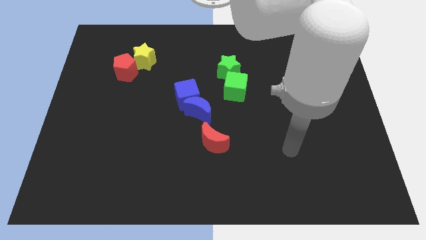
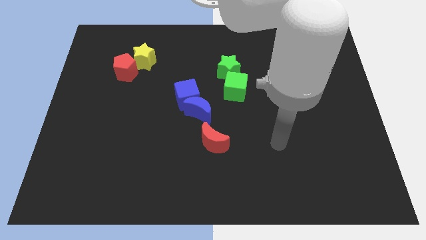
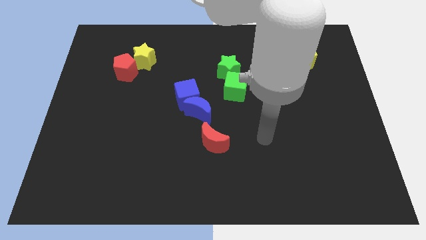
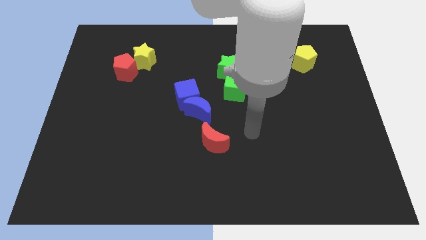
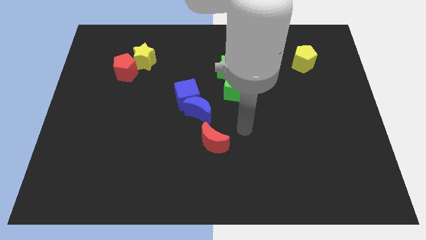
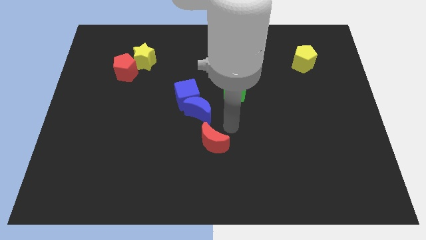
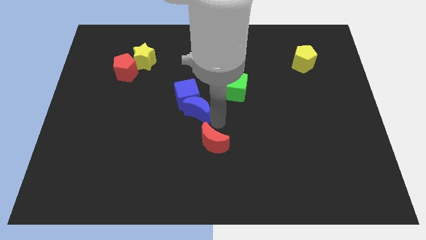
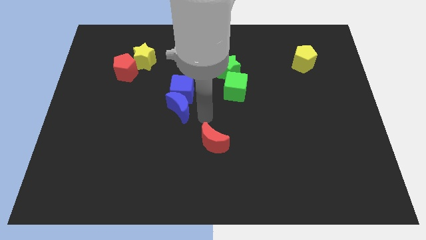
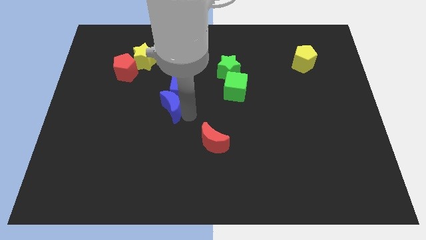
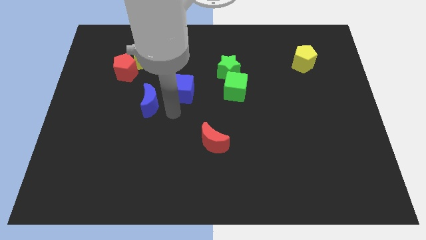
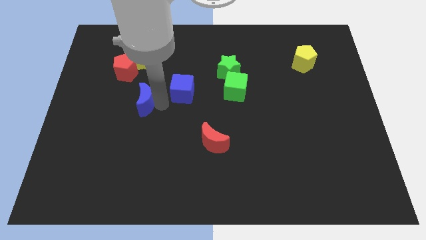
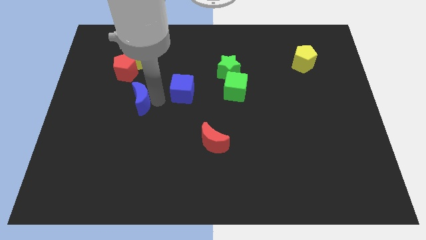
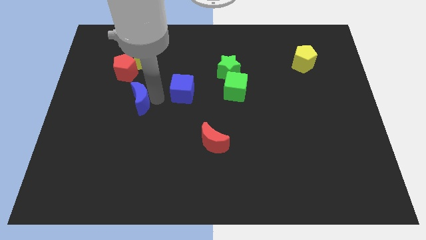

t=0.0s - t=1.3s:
pull the blue cube apart from the blue moon

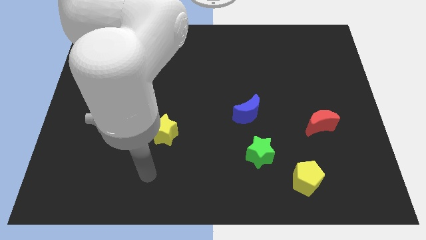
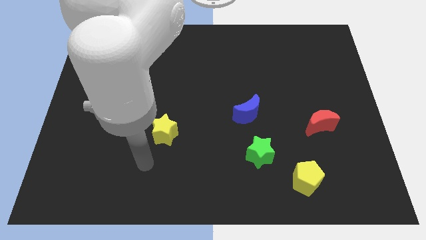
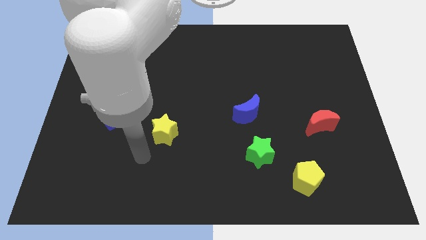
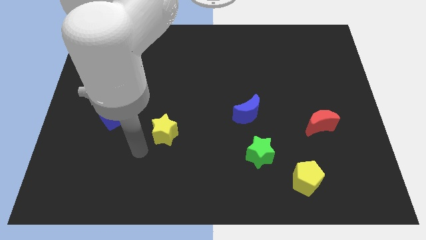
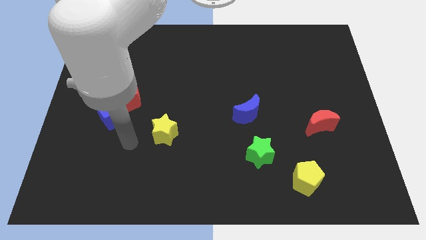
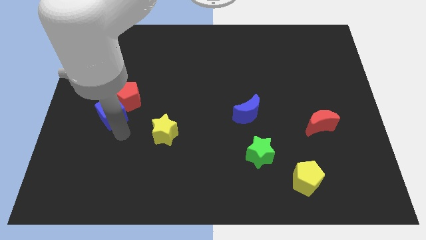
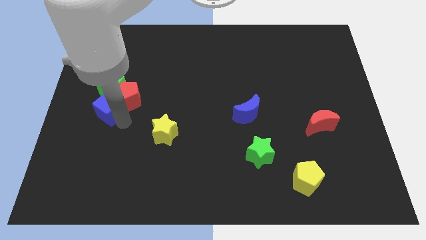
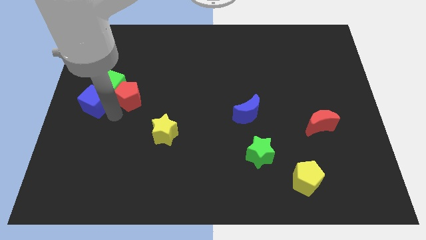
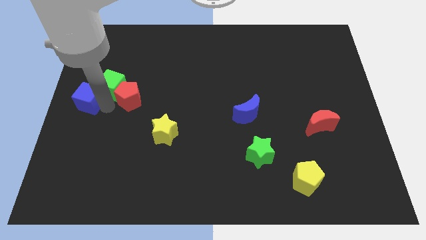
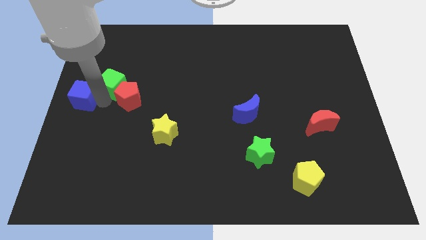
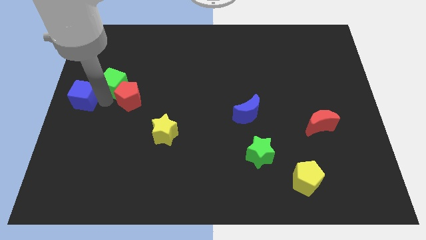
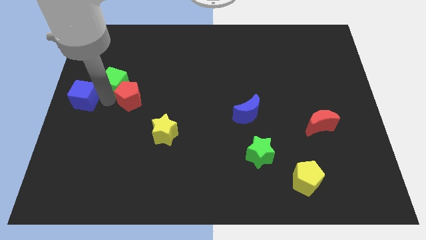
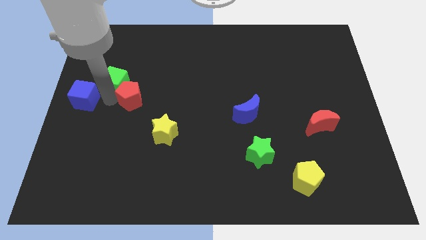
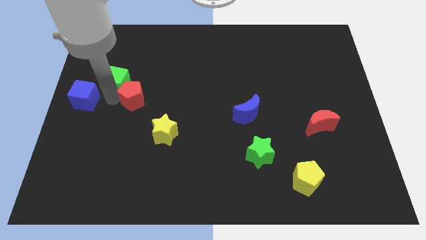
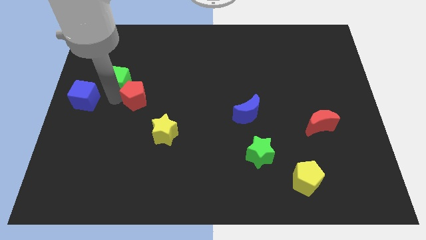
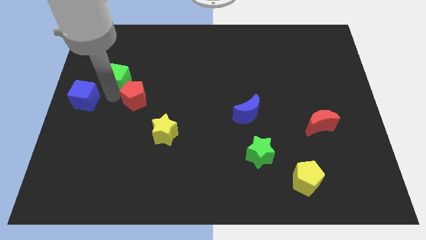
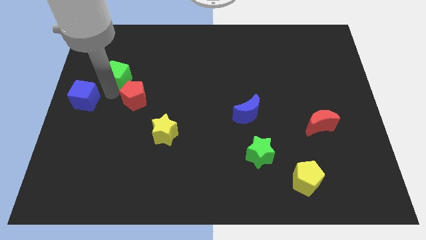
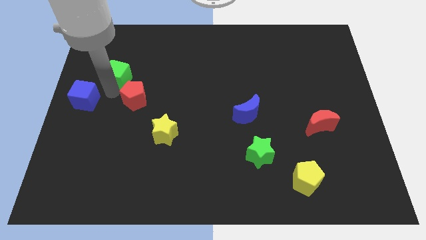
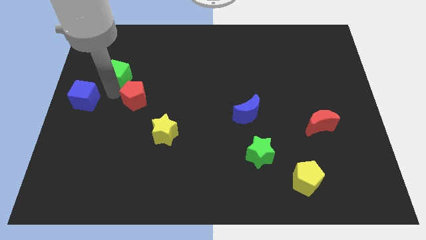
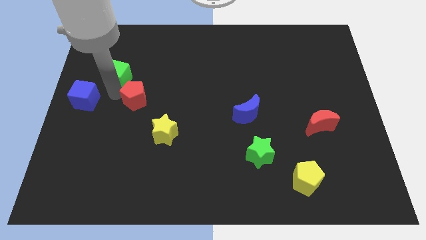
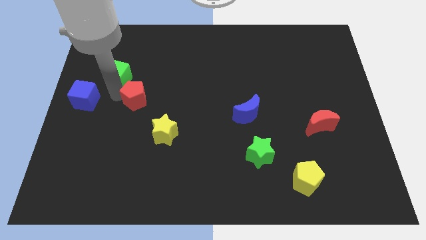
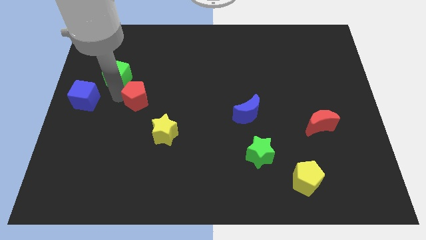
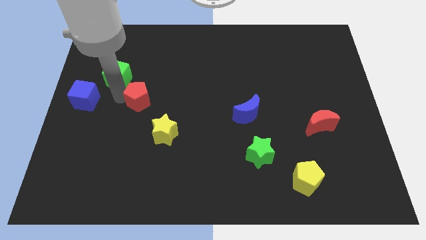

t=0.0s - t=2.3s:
separate the red pentagon from the green cube and blue cube

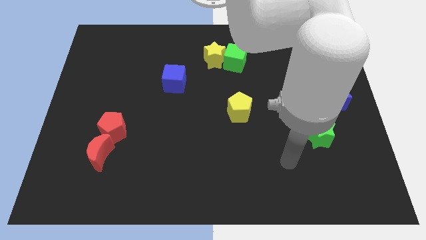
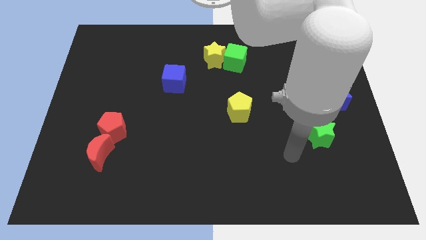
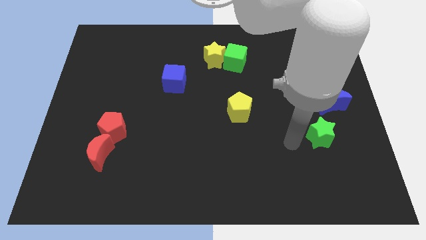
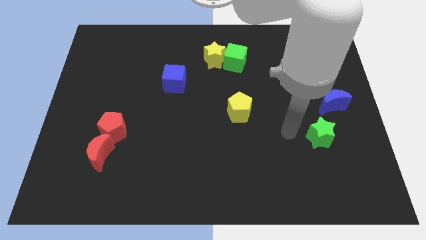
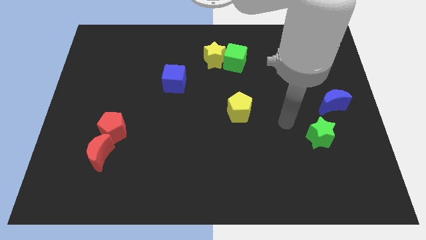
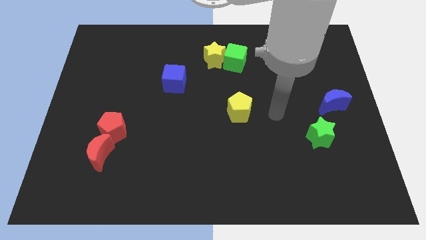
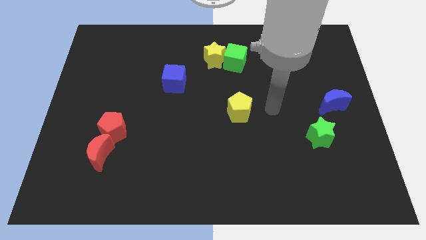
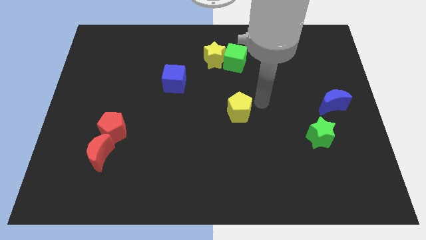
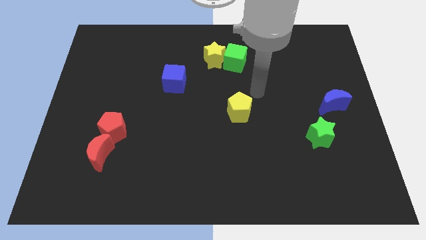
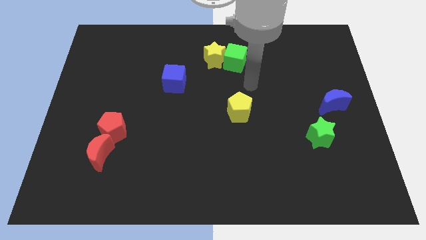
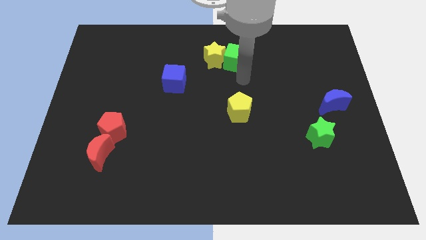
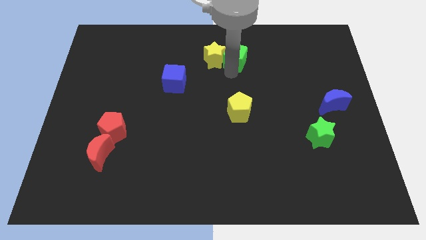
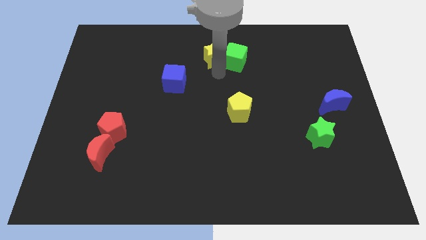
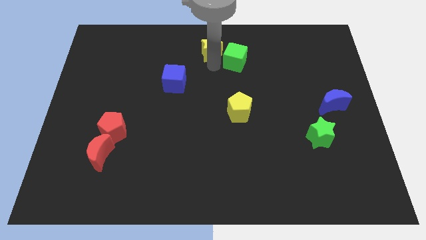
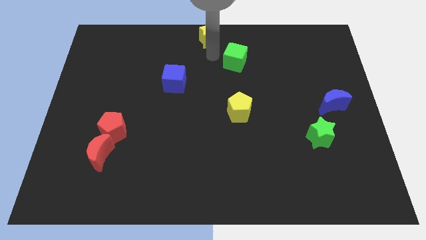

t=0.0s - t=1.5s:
pull the green cube apart from the yellow star

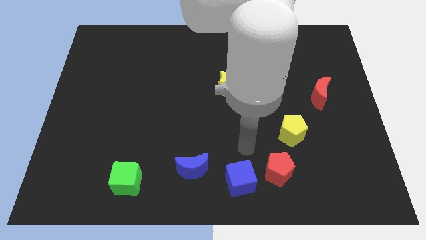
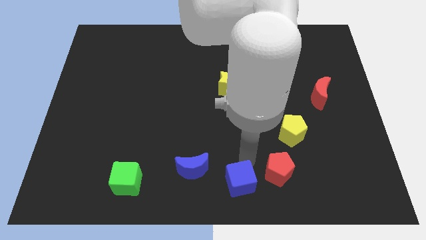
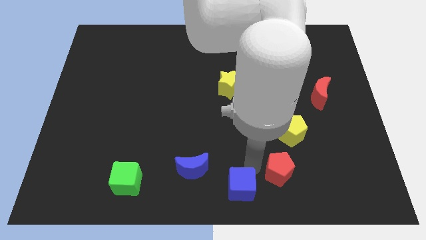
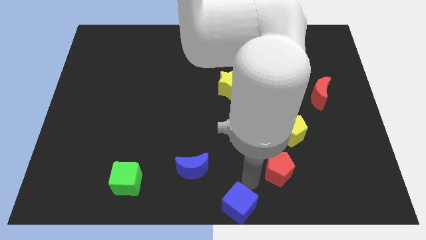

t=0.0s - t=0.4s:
pull the red pentagon apart from the blue cube

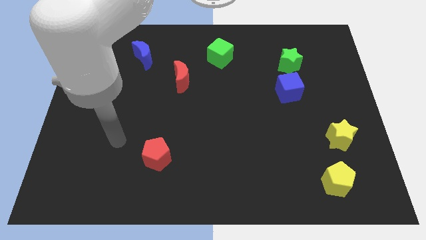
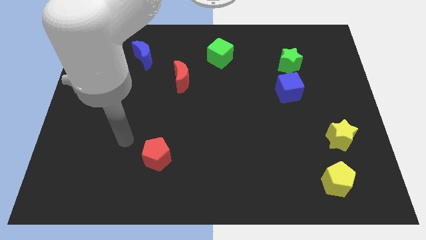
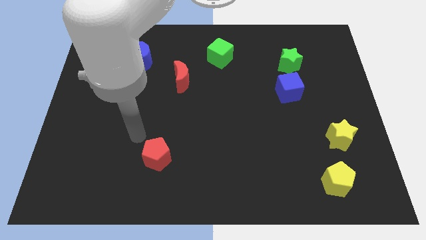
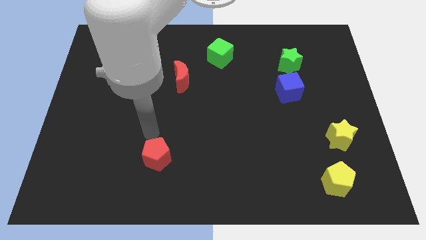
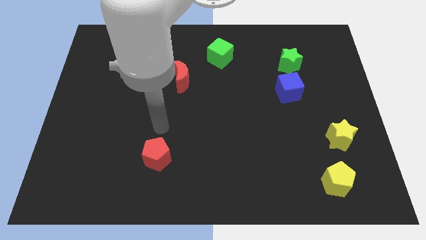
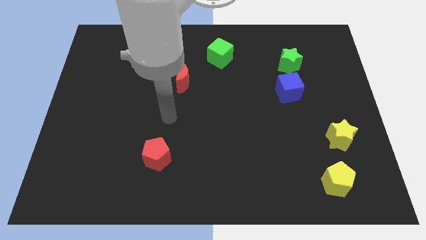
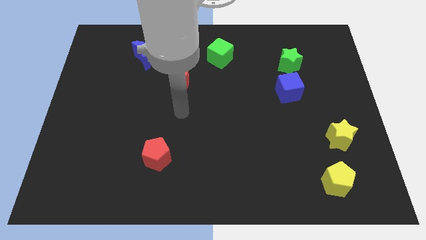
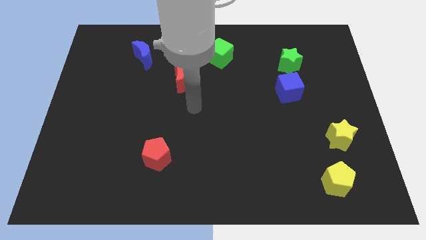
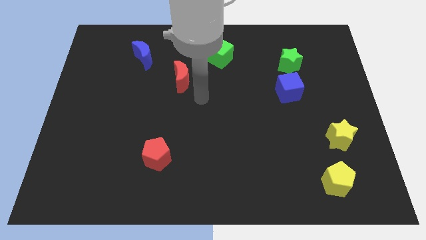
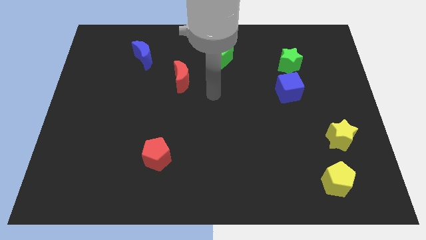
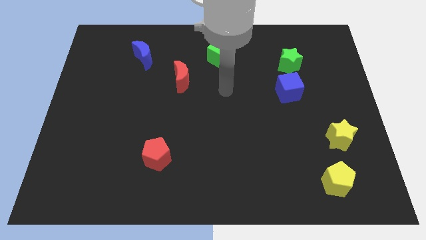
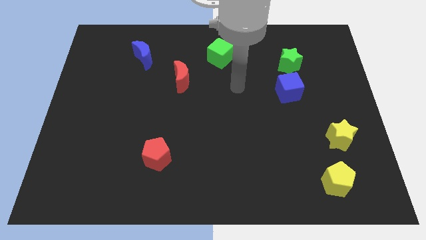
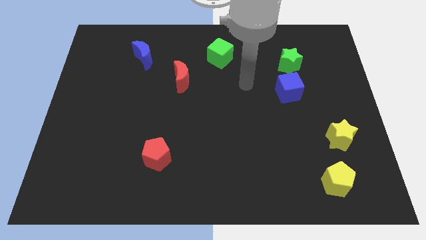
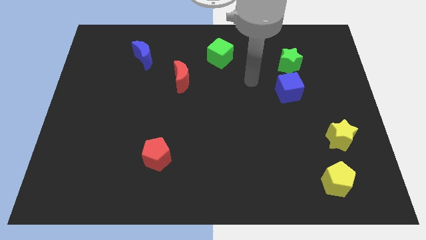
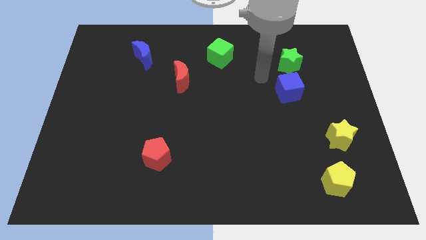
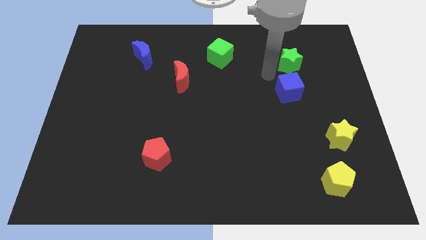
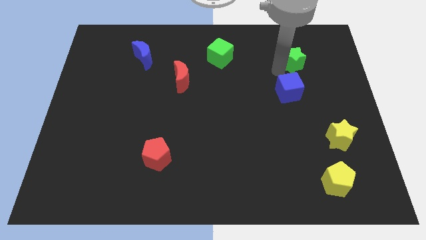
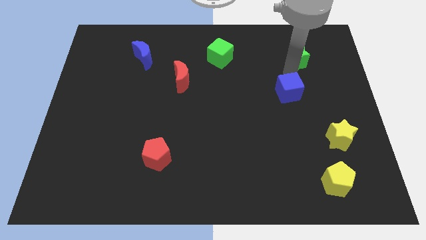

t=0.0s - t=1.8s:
move the blue cube away from the green star

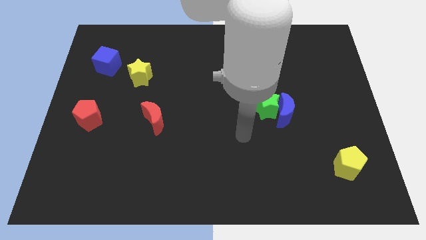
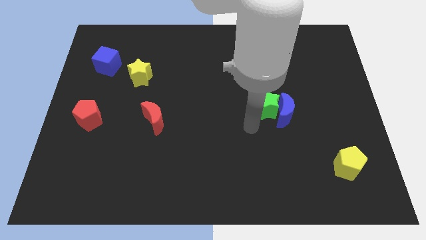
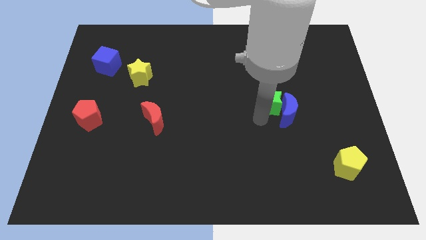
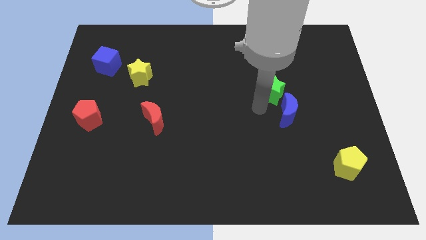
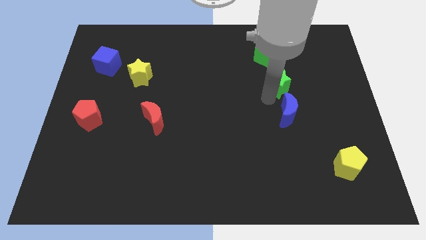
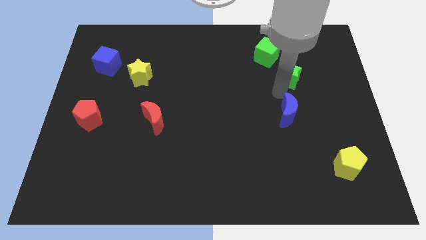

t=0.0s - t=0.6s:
pull the blue moon apart from the green star

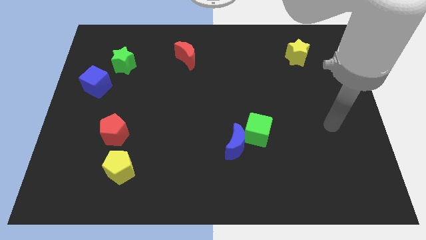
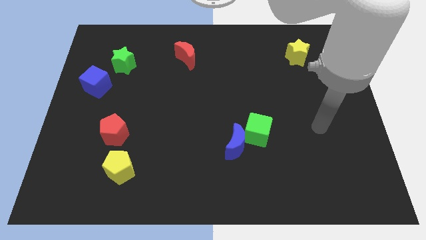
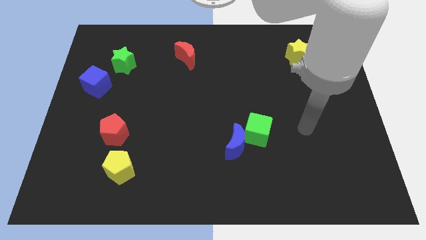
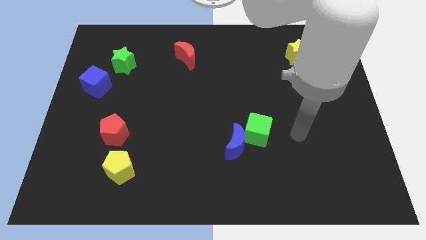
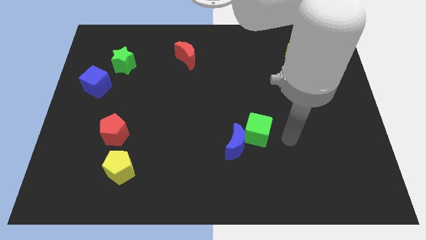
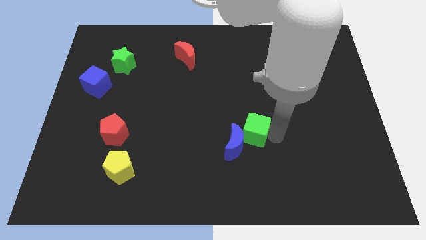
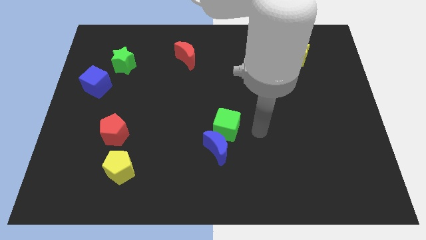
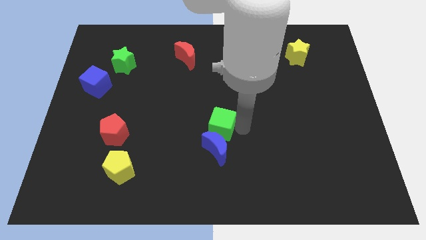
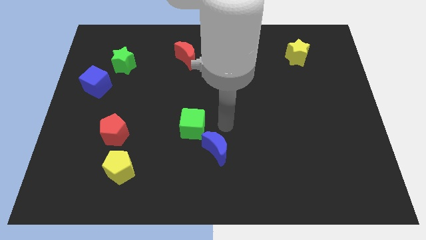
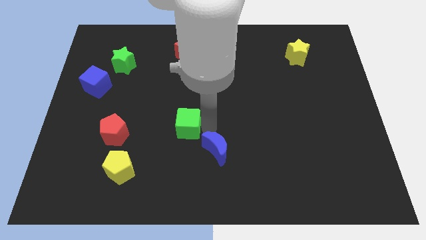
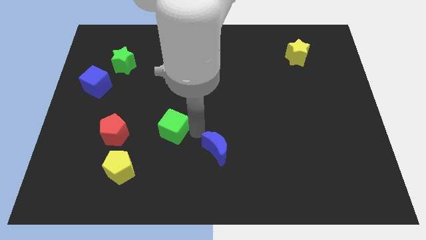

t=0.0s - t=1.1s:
pull the blue moon apart from the green cube

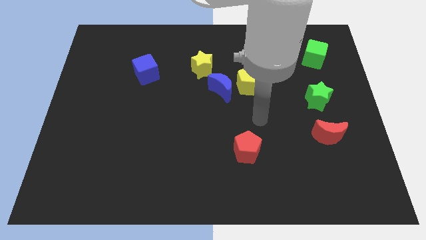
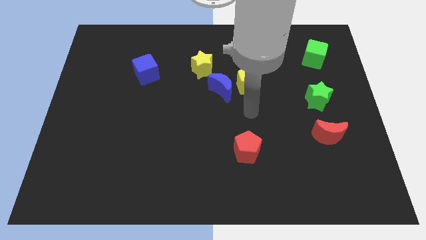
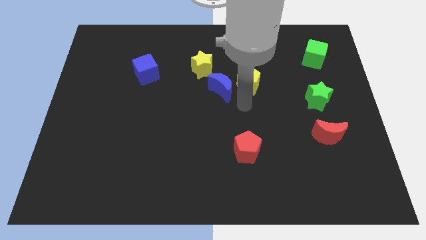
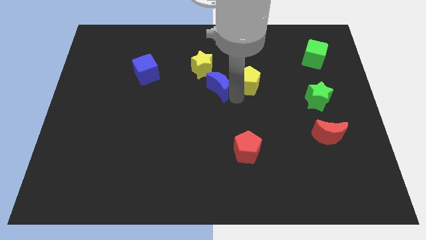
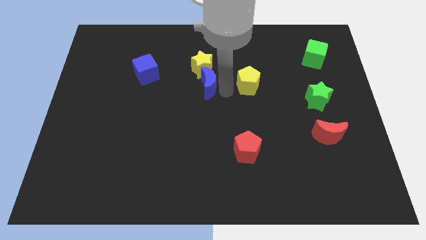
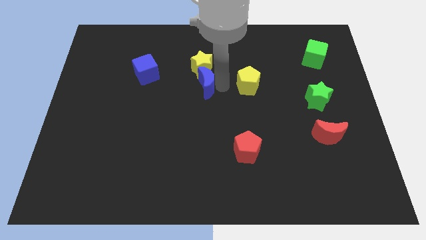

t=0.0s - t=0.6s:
move the yellow pentagon away from the blue moon
